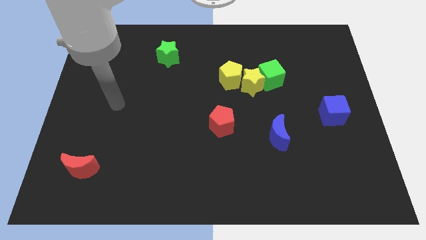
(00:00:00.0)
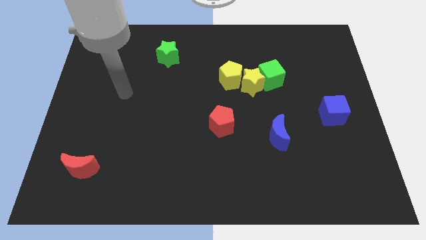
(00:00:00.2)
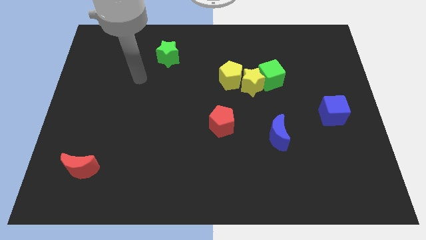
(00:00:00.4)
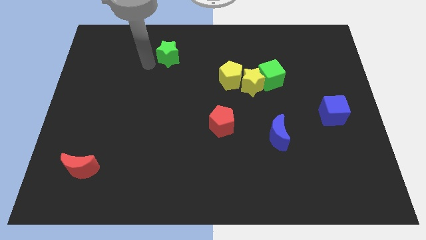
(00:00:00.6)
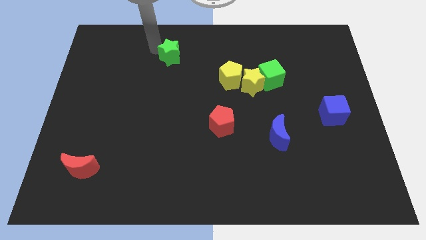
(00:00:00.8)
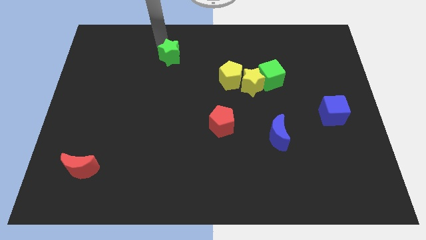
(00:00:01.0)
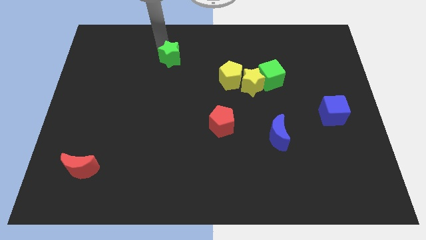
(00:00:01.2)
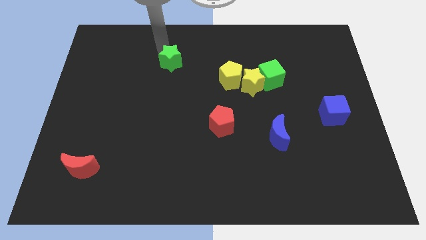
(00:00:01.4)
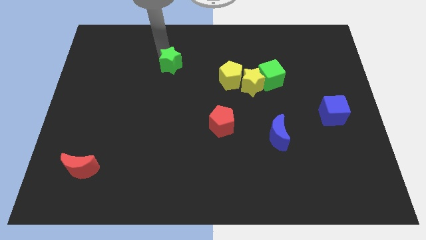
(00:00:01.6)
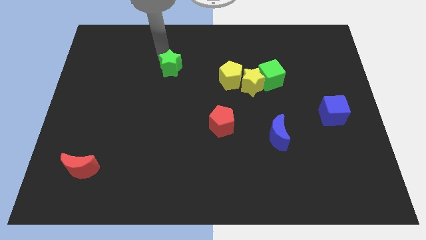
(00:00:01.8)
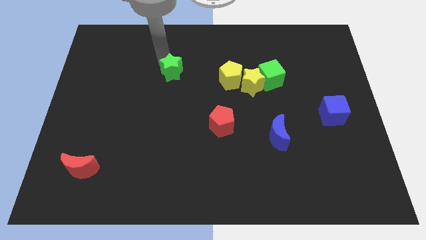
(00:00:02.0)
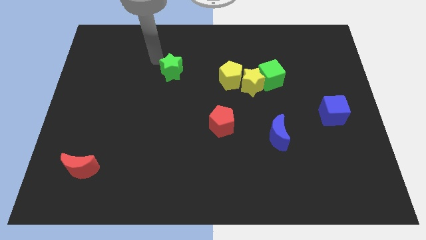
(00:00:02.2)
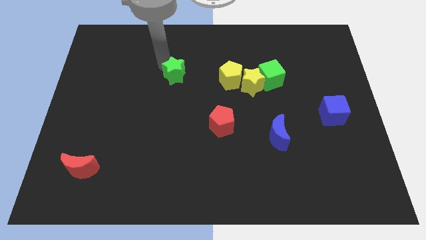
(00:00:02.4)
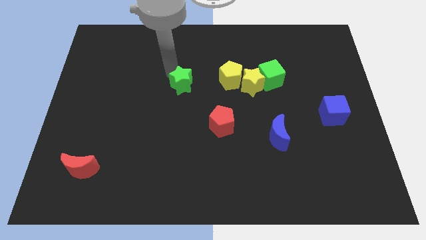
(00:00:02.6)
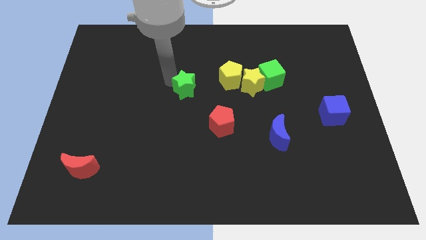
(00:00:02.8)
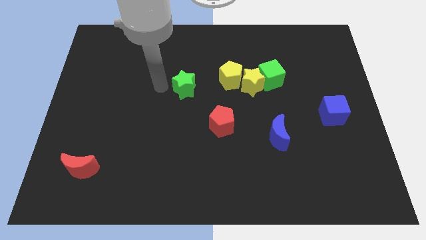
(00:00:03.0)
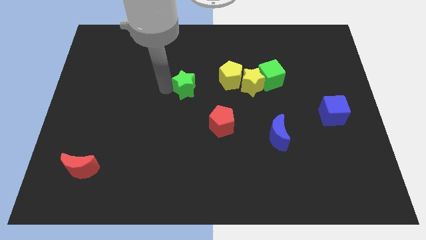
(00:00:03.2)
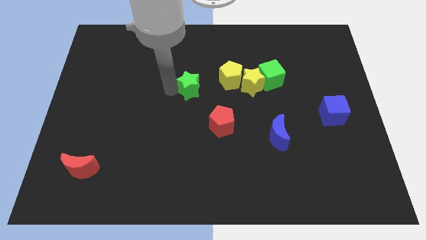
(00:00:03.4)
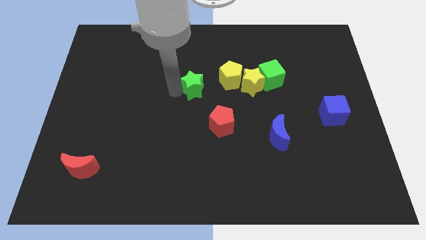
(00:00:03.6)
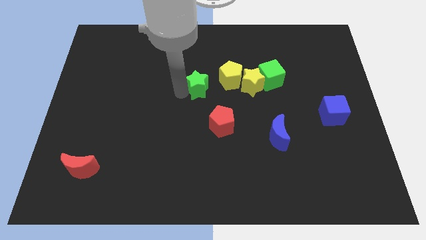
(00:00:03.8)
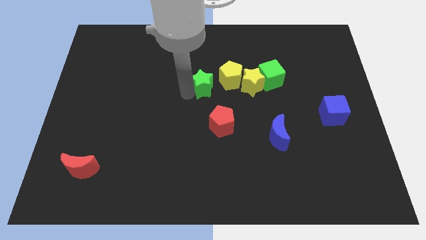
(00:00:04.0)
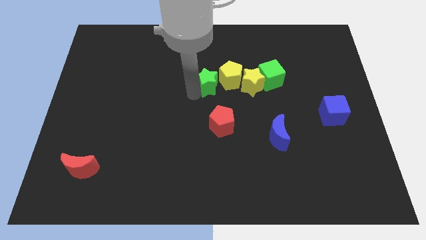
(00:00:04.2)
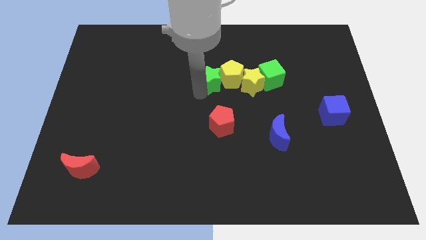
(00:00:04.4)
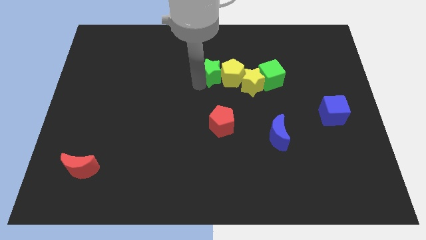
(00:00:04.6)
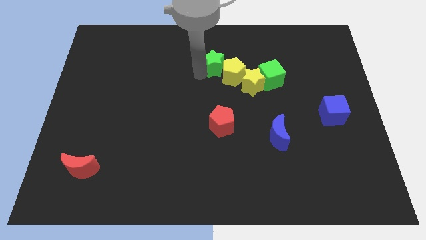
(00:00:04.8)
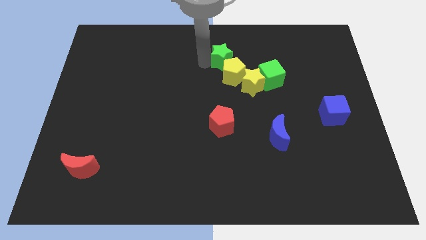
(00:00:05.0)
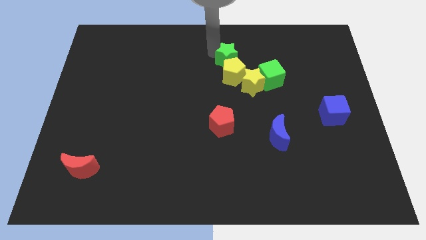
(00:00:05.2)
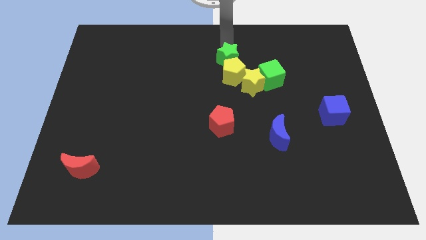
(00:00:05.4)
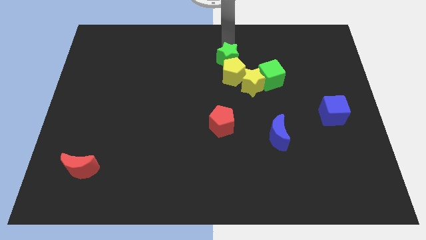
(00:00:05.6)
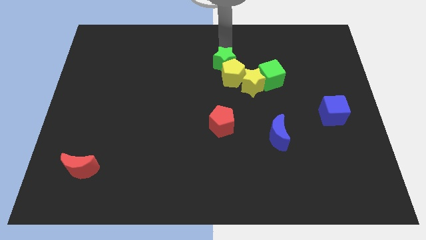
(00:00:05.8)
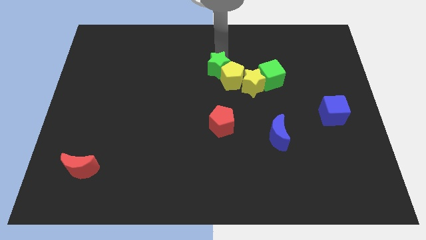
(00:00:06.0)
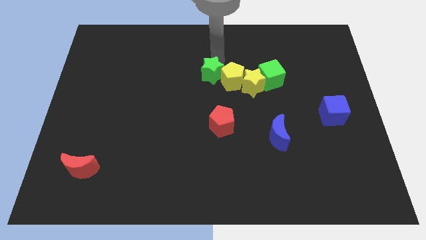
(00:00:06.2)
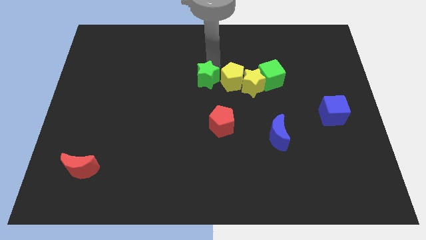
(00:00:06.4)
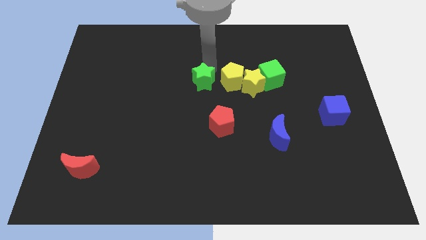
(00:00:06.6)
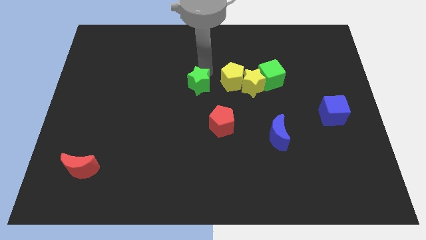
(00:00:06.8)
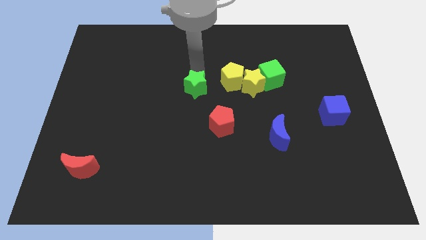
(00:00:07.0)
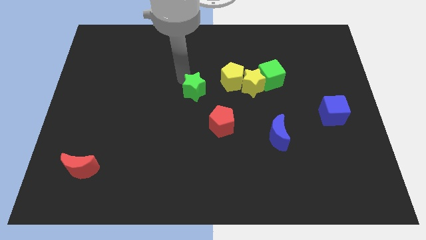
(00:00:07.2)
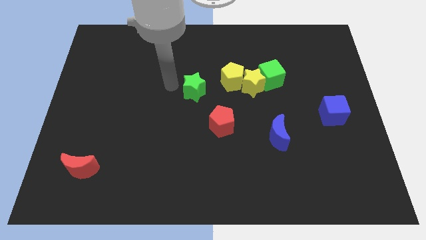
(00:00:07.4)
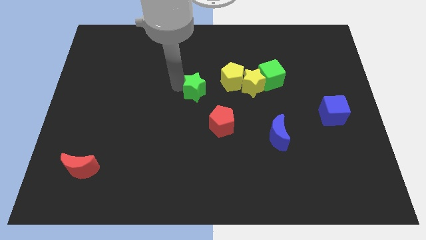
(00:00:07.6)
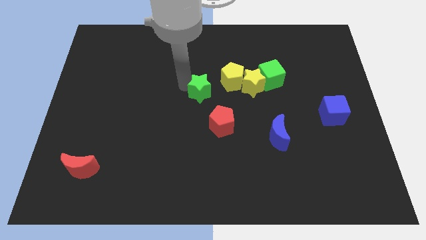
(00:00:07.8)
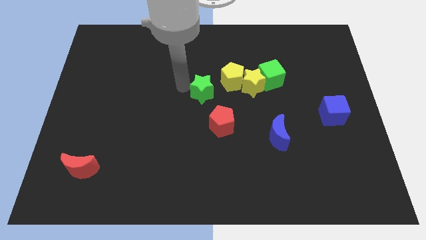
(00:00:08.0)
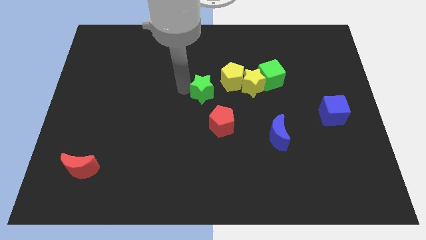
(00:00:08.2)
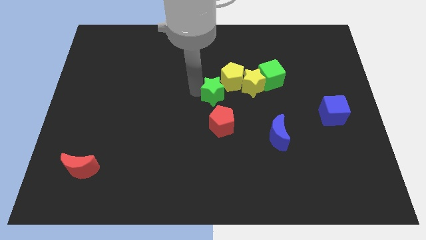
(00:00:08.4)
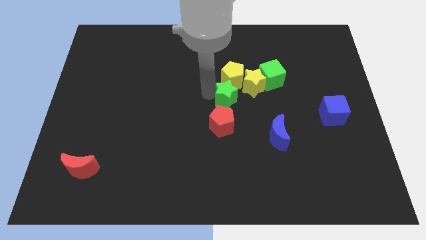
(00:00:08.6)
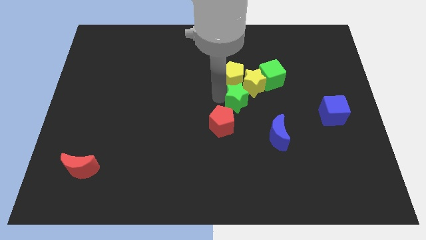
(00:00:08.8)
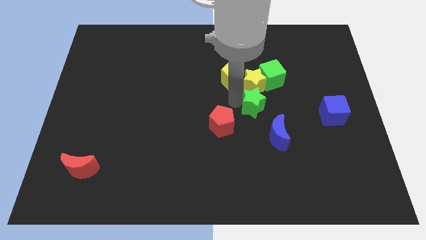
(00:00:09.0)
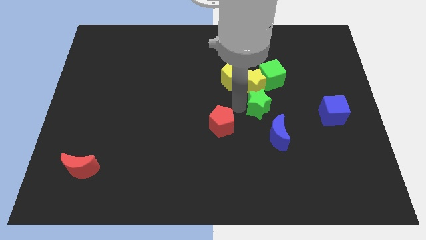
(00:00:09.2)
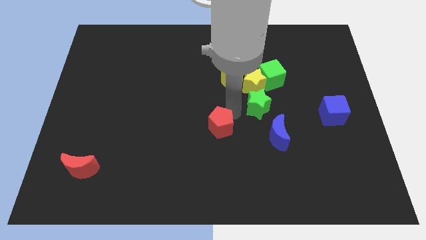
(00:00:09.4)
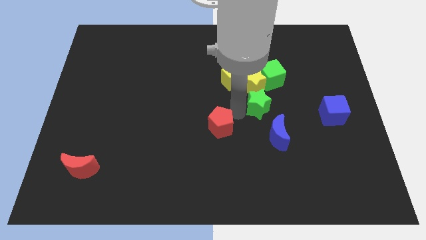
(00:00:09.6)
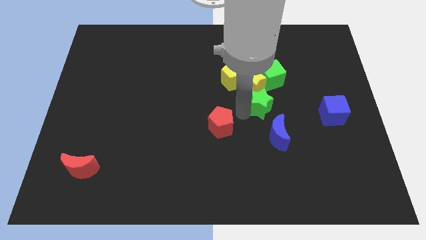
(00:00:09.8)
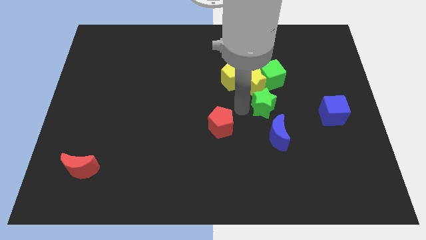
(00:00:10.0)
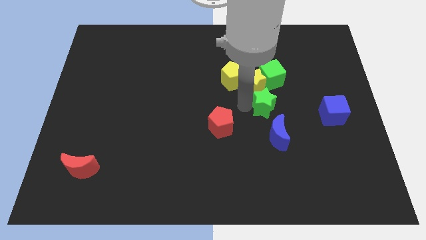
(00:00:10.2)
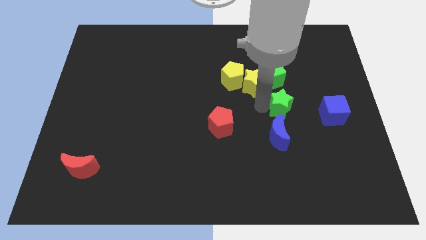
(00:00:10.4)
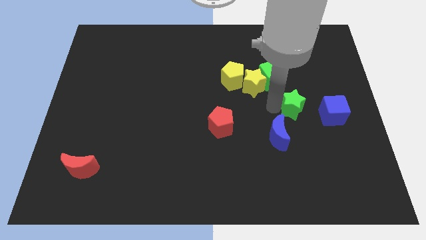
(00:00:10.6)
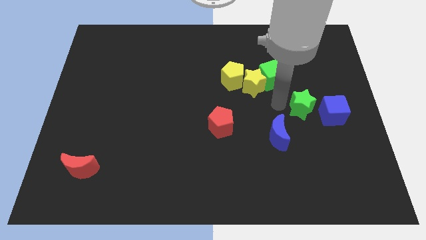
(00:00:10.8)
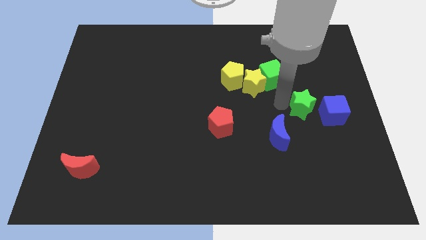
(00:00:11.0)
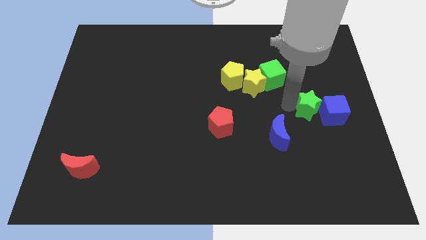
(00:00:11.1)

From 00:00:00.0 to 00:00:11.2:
put the green star next to the blue cube

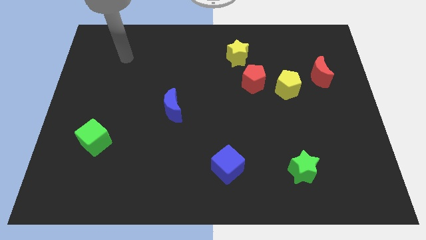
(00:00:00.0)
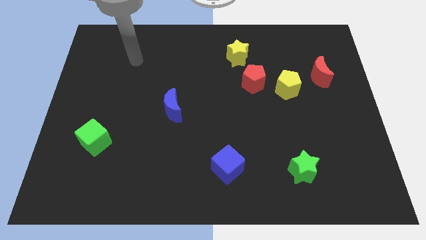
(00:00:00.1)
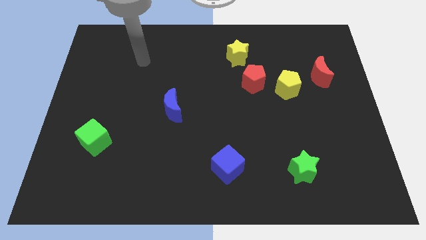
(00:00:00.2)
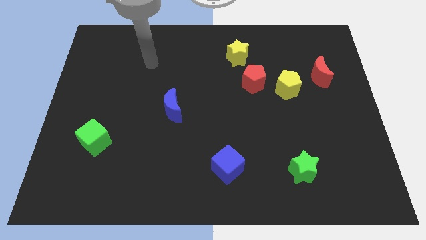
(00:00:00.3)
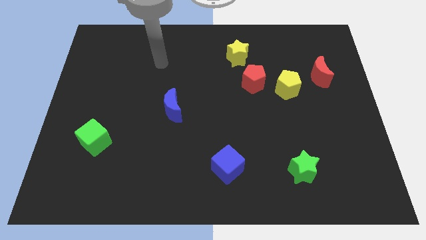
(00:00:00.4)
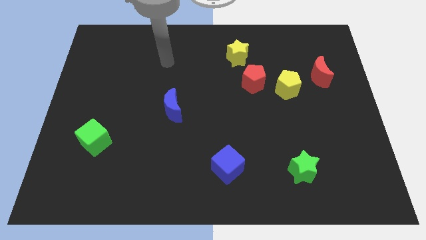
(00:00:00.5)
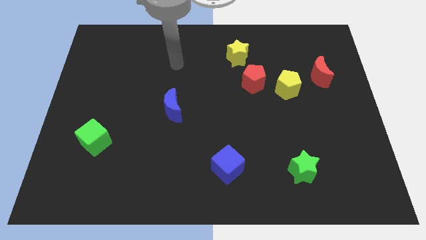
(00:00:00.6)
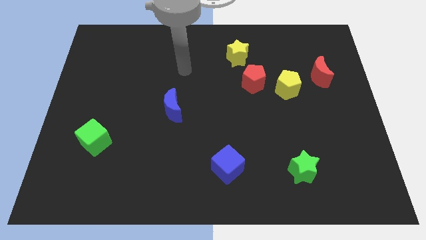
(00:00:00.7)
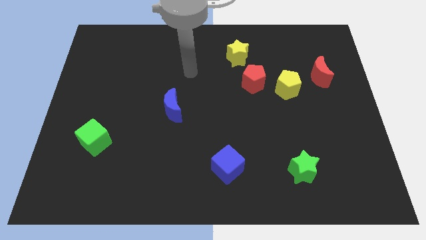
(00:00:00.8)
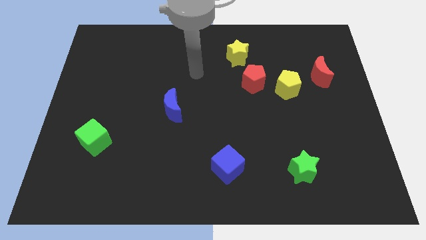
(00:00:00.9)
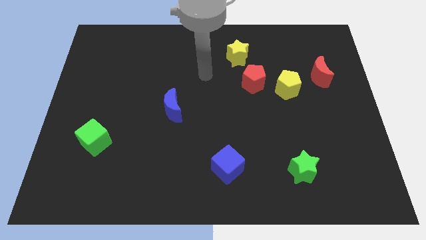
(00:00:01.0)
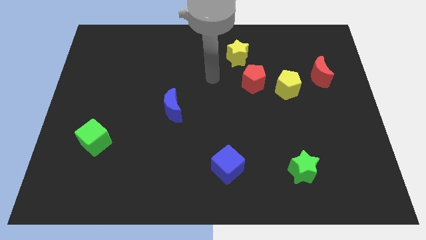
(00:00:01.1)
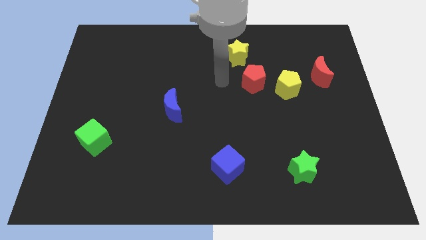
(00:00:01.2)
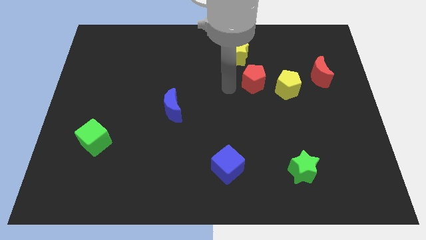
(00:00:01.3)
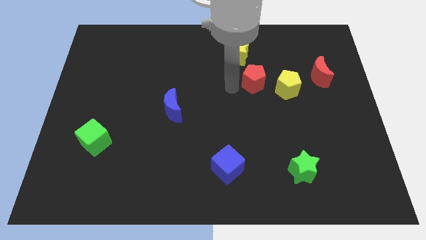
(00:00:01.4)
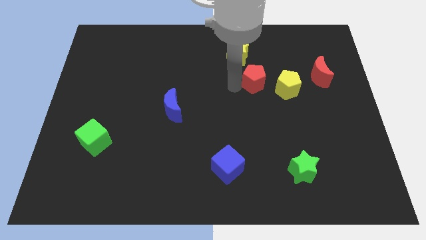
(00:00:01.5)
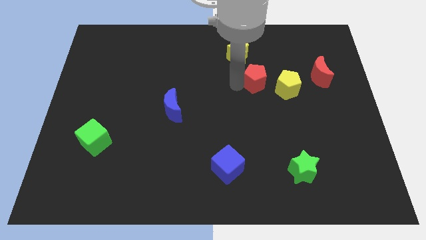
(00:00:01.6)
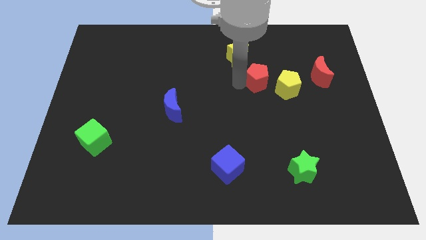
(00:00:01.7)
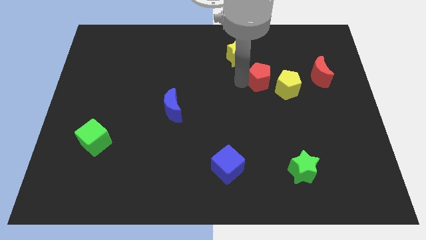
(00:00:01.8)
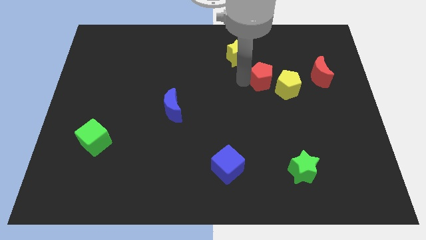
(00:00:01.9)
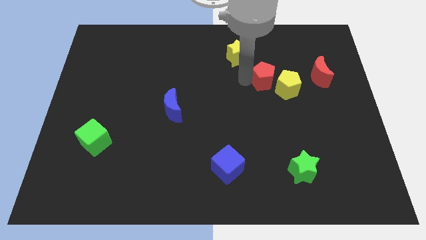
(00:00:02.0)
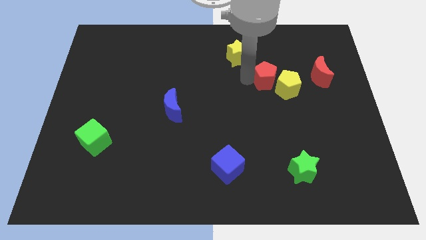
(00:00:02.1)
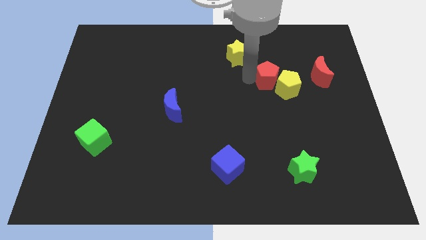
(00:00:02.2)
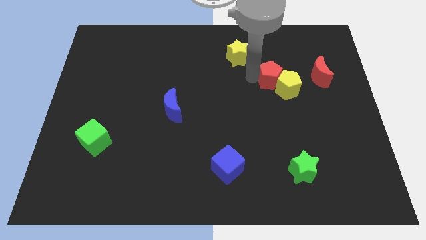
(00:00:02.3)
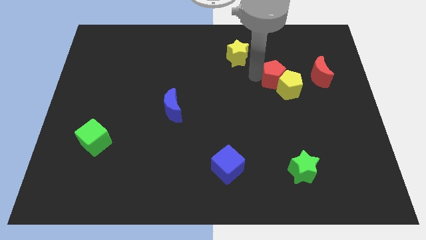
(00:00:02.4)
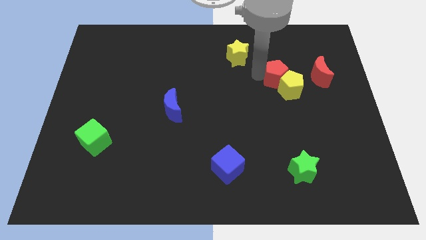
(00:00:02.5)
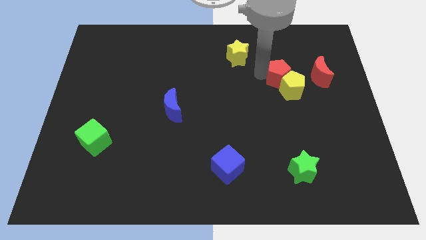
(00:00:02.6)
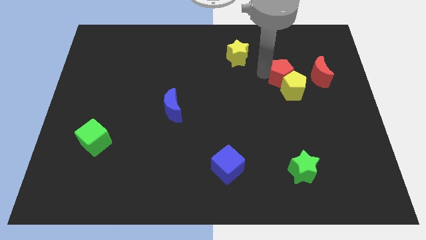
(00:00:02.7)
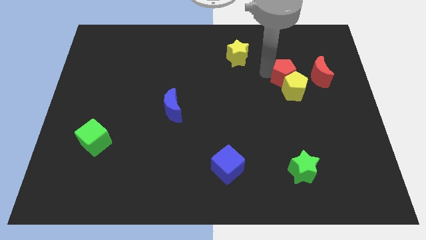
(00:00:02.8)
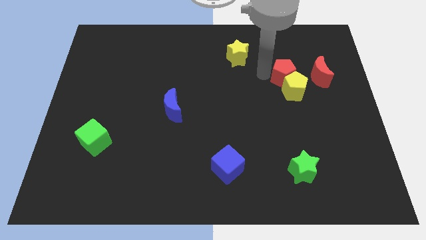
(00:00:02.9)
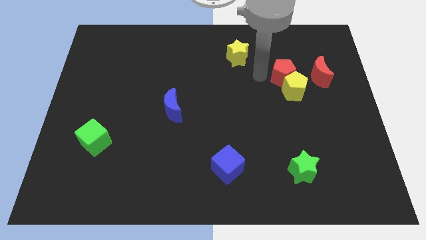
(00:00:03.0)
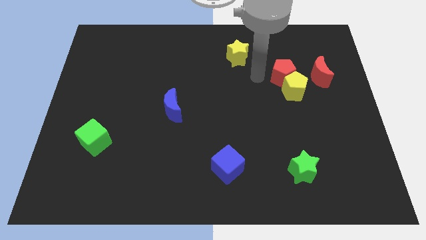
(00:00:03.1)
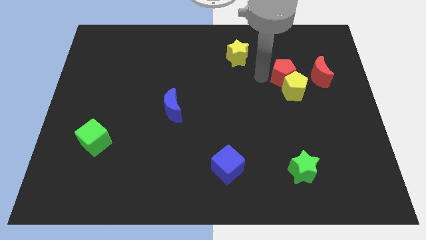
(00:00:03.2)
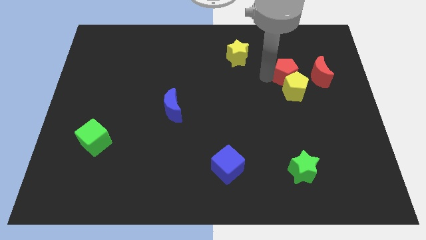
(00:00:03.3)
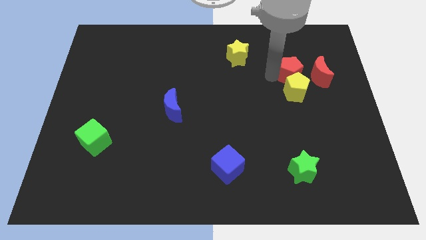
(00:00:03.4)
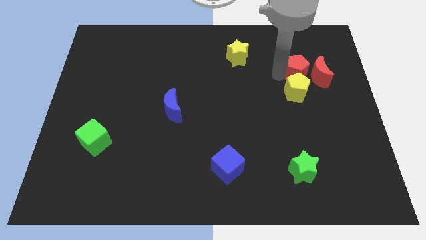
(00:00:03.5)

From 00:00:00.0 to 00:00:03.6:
push the red pentagon to the red moon
